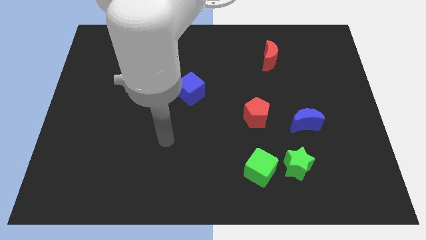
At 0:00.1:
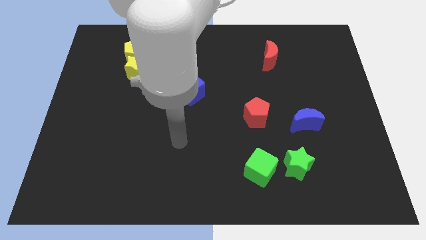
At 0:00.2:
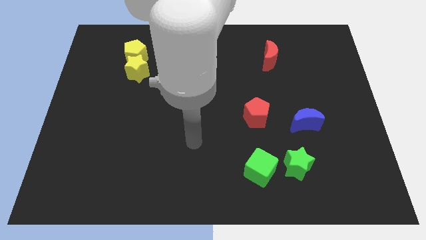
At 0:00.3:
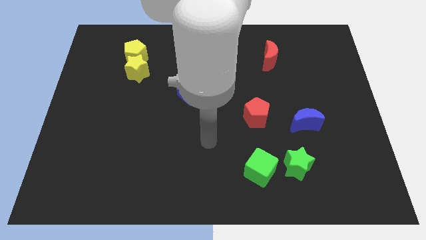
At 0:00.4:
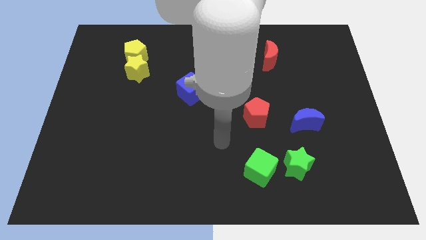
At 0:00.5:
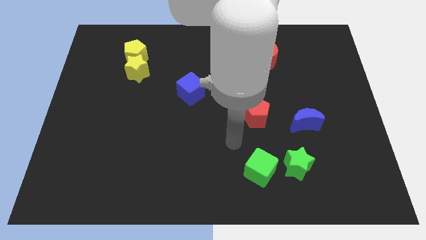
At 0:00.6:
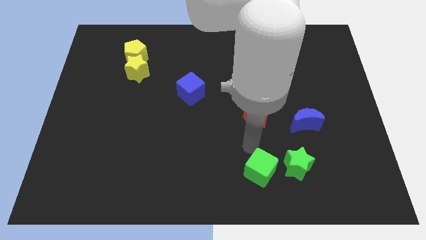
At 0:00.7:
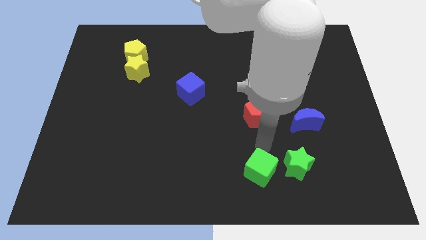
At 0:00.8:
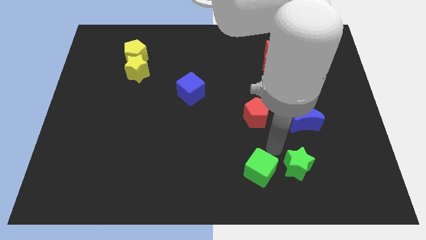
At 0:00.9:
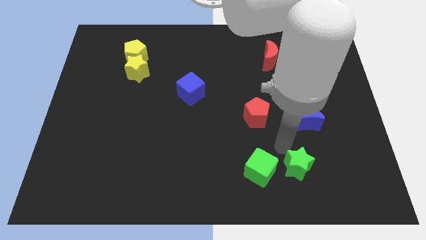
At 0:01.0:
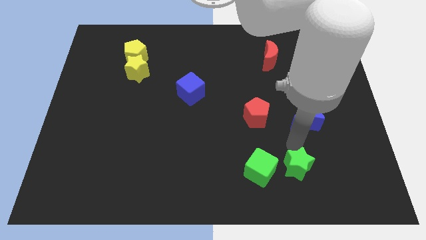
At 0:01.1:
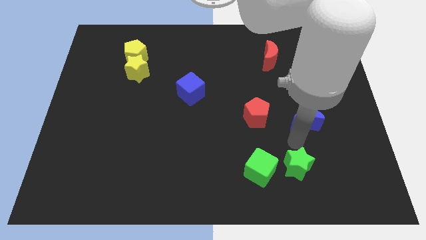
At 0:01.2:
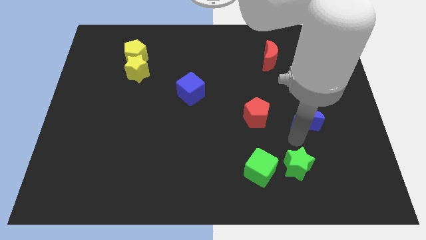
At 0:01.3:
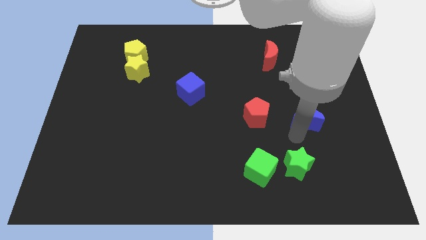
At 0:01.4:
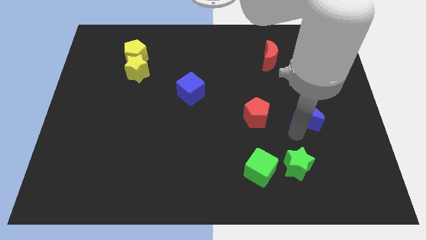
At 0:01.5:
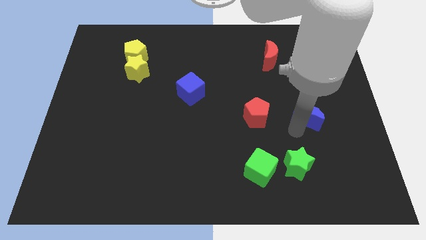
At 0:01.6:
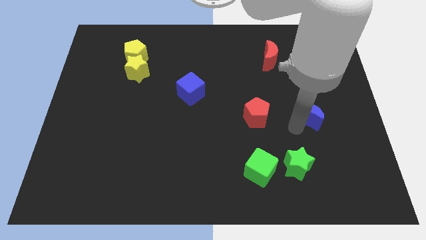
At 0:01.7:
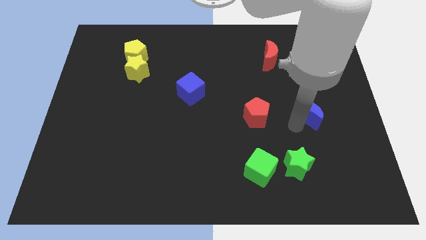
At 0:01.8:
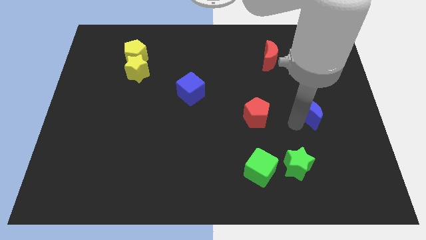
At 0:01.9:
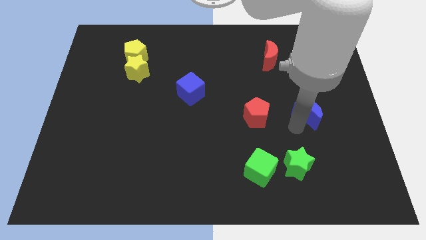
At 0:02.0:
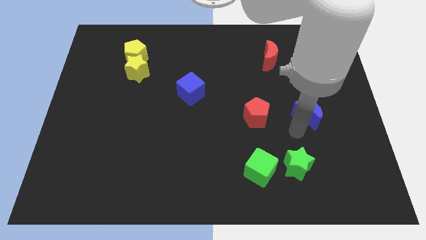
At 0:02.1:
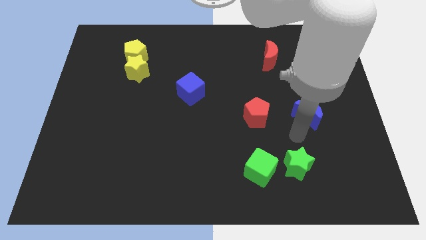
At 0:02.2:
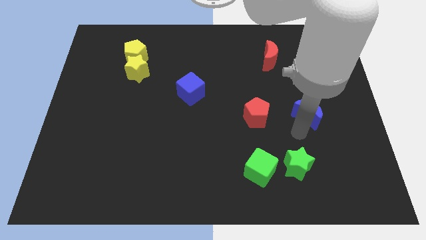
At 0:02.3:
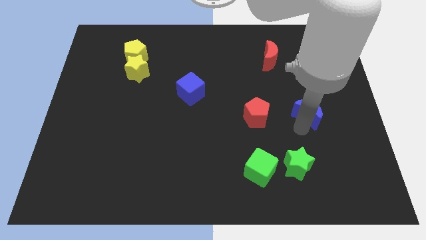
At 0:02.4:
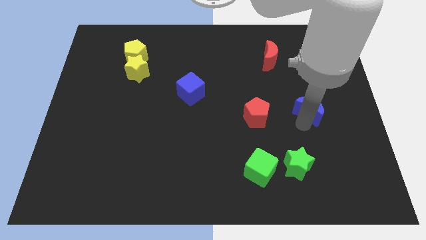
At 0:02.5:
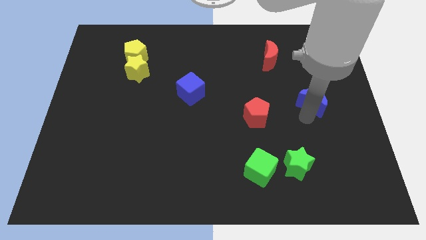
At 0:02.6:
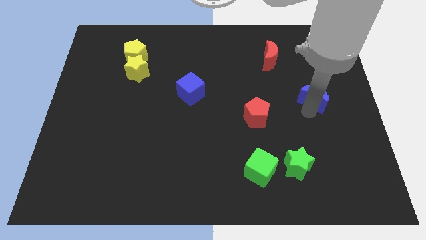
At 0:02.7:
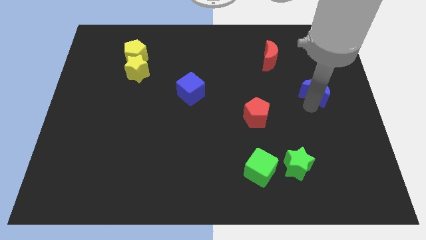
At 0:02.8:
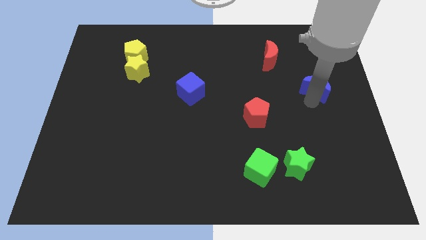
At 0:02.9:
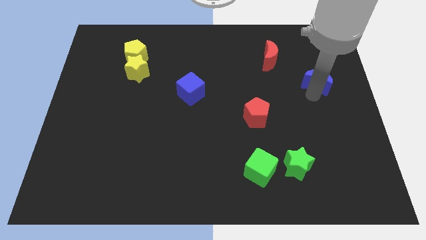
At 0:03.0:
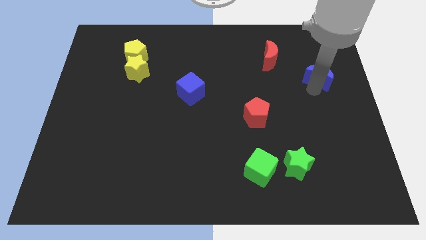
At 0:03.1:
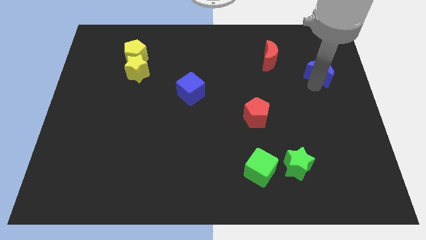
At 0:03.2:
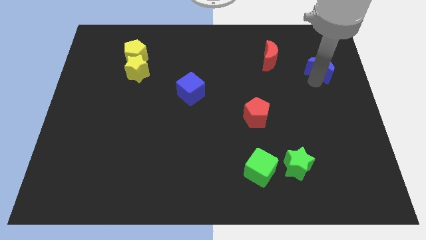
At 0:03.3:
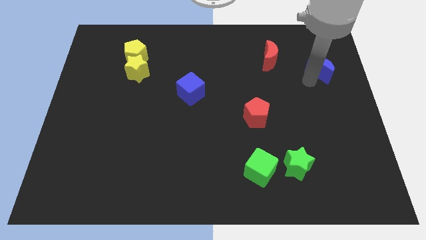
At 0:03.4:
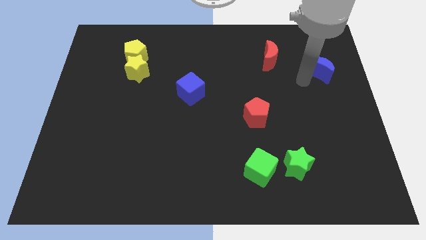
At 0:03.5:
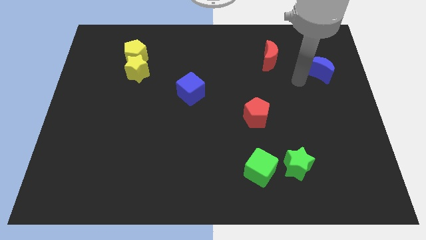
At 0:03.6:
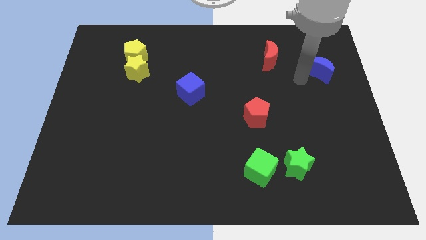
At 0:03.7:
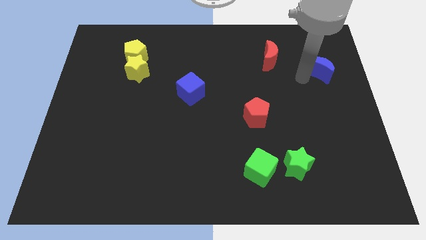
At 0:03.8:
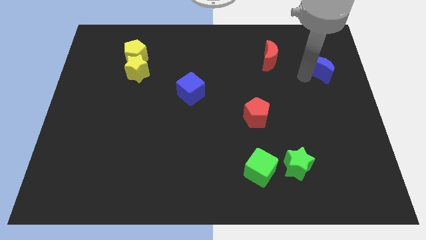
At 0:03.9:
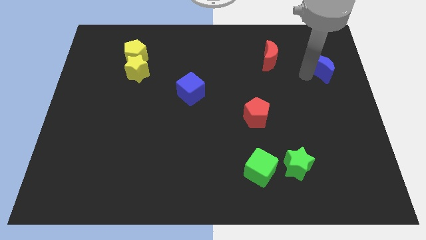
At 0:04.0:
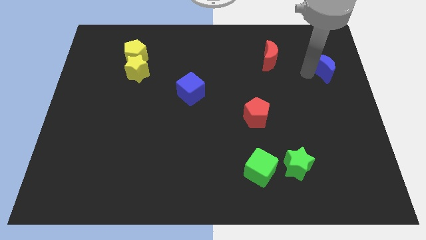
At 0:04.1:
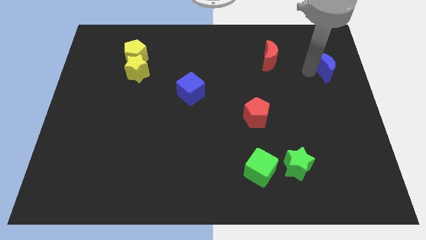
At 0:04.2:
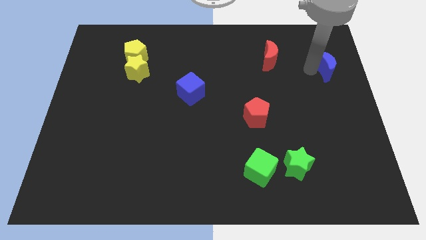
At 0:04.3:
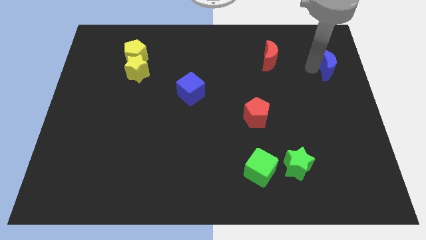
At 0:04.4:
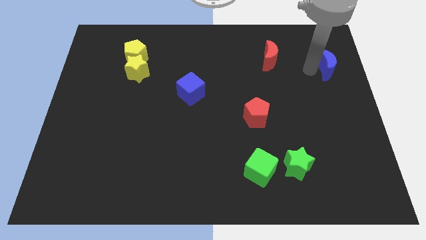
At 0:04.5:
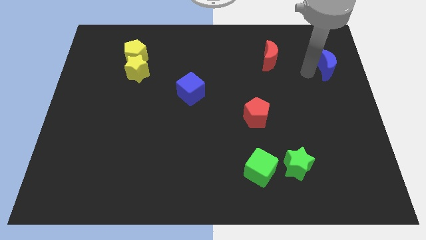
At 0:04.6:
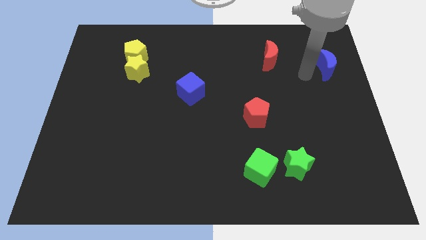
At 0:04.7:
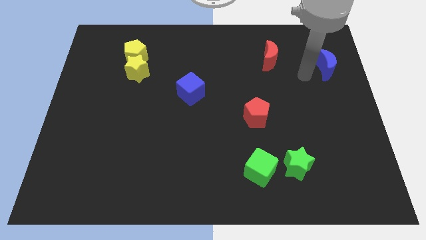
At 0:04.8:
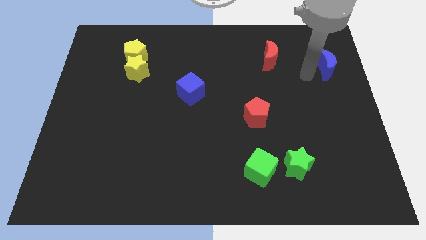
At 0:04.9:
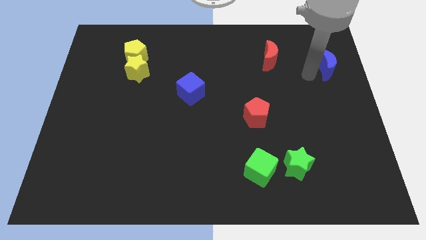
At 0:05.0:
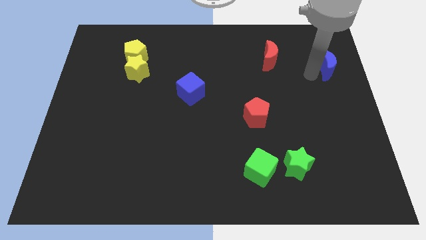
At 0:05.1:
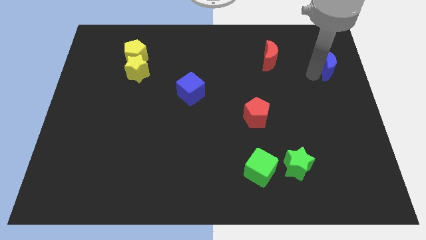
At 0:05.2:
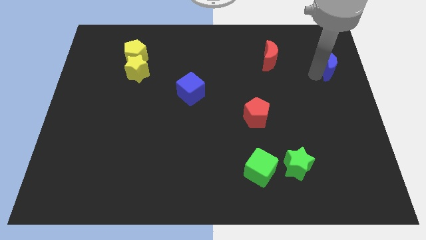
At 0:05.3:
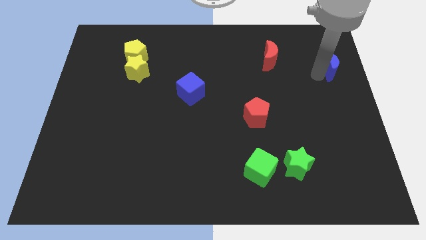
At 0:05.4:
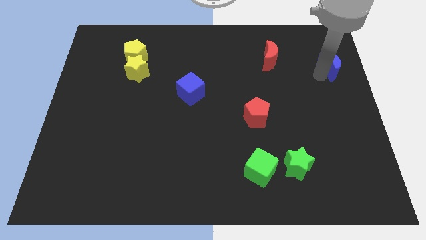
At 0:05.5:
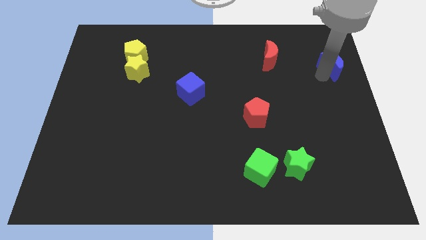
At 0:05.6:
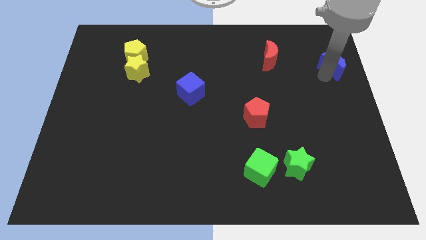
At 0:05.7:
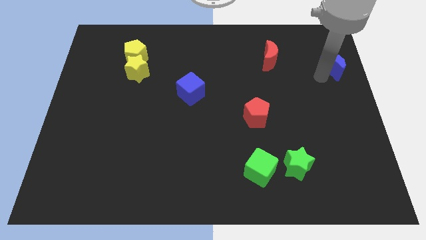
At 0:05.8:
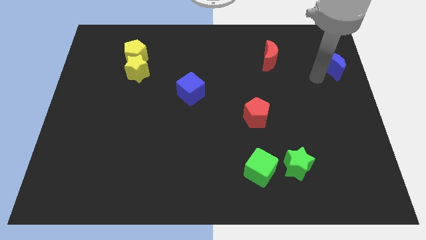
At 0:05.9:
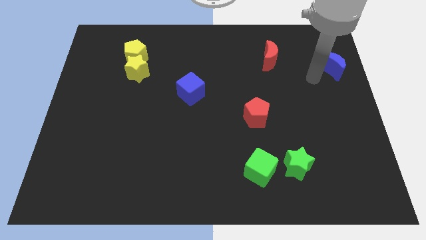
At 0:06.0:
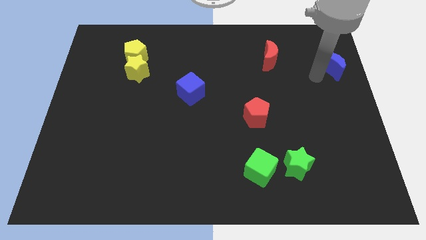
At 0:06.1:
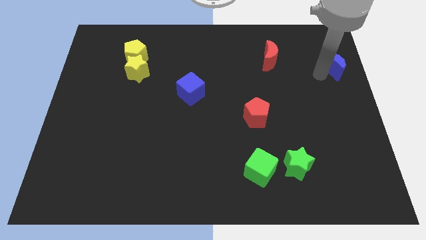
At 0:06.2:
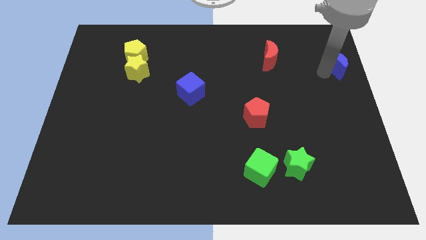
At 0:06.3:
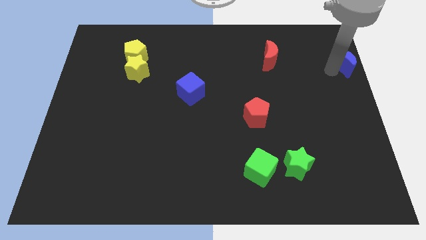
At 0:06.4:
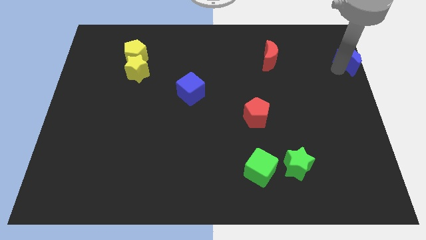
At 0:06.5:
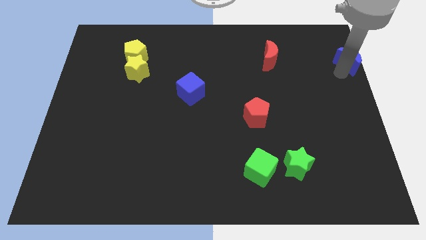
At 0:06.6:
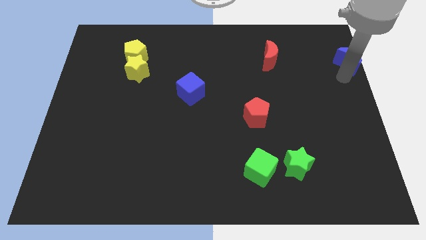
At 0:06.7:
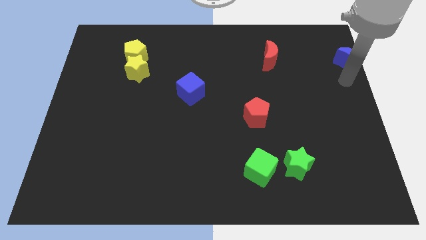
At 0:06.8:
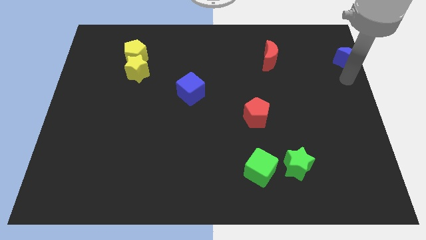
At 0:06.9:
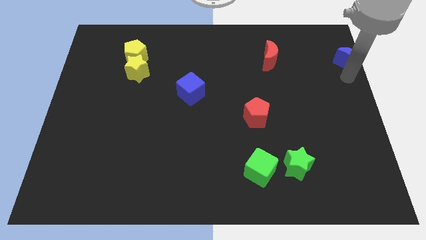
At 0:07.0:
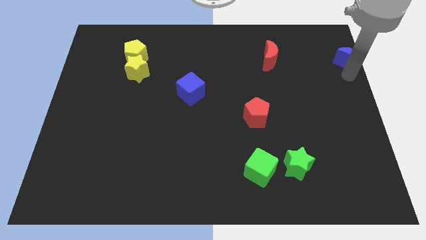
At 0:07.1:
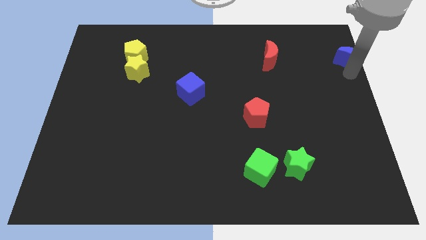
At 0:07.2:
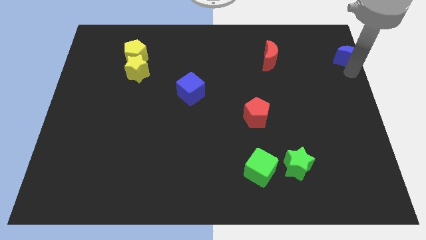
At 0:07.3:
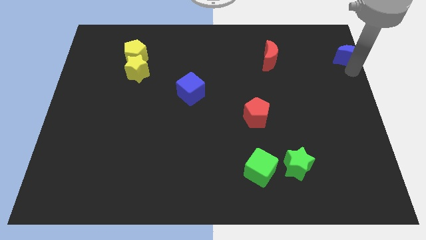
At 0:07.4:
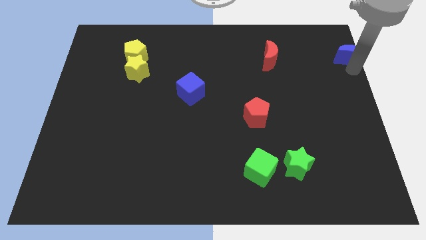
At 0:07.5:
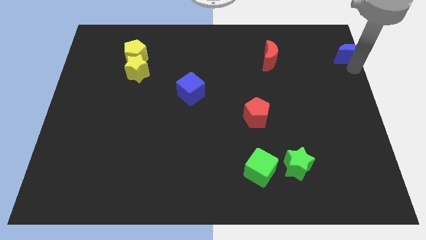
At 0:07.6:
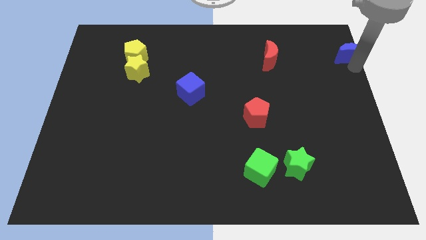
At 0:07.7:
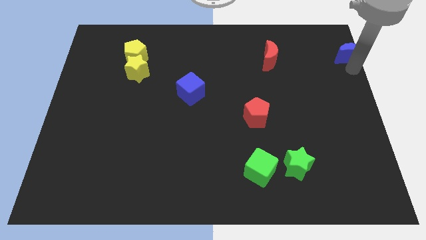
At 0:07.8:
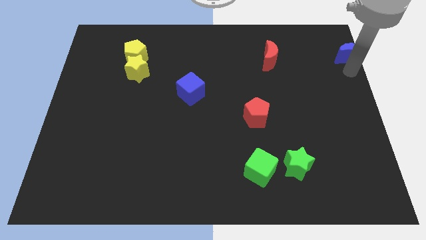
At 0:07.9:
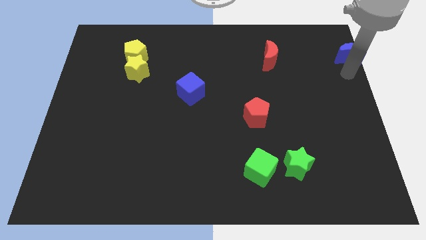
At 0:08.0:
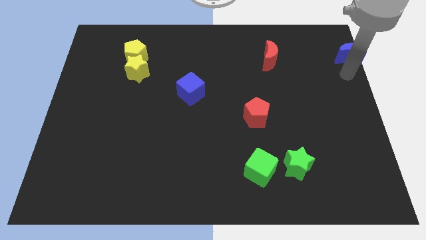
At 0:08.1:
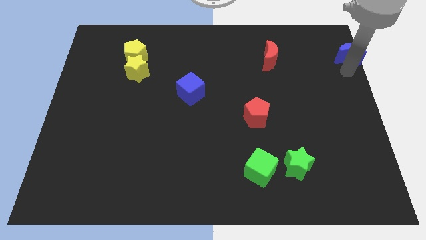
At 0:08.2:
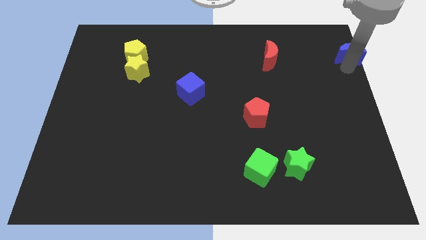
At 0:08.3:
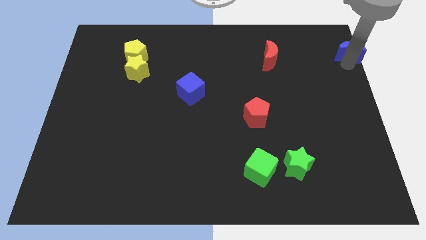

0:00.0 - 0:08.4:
move the blue moon to the upper right corner
